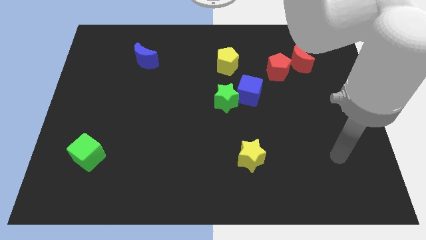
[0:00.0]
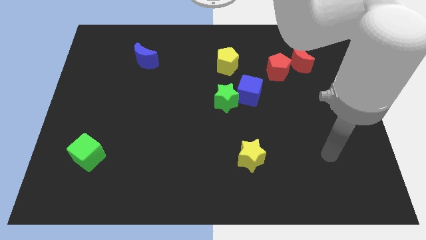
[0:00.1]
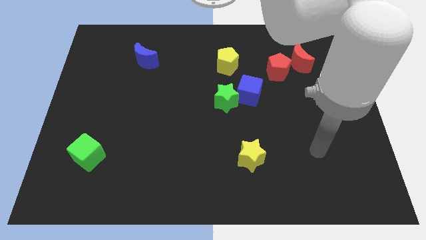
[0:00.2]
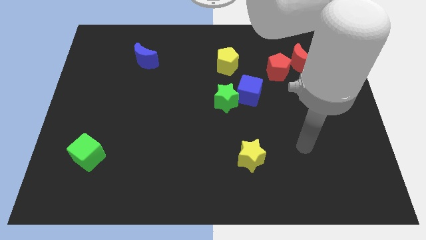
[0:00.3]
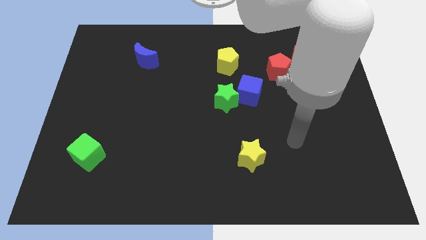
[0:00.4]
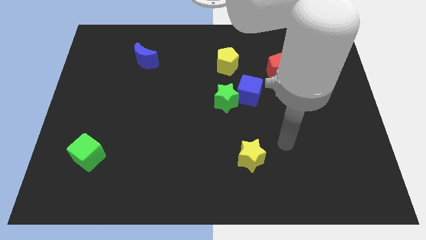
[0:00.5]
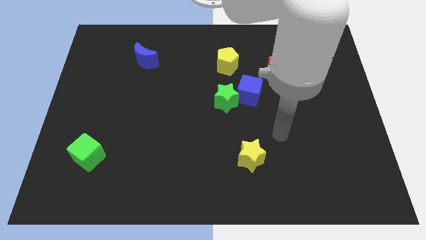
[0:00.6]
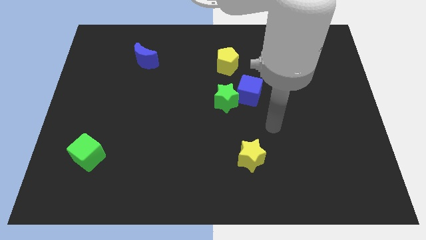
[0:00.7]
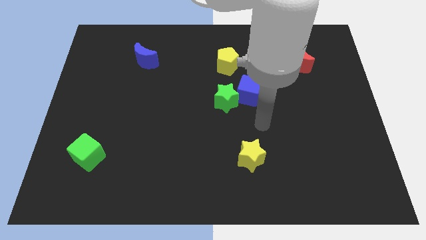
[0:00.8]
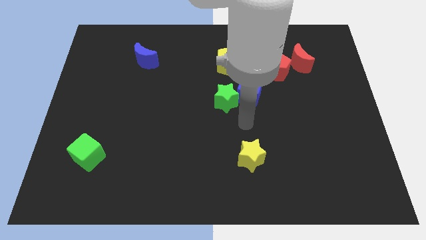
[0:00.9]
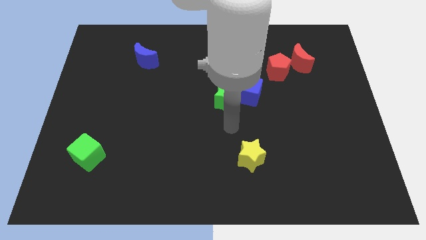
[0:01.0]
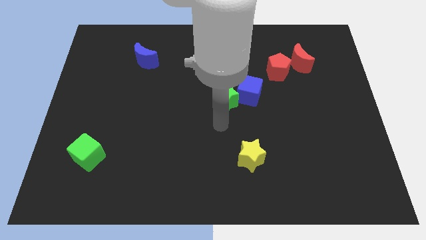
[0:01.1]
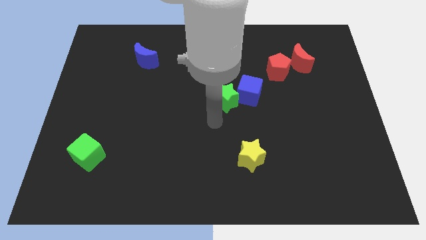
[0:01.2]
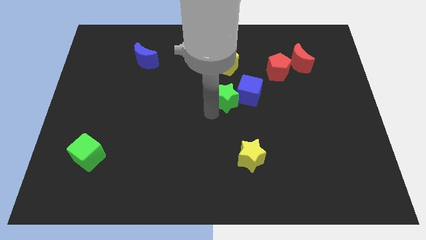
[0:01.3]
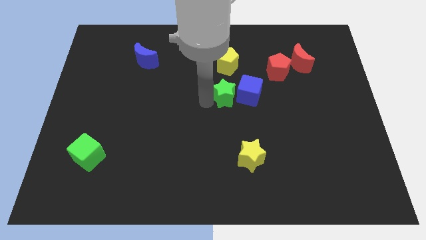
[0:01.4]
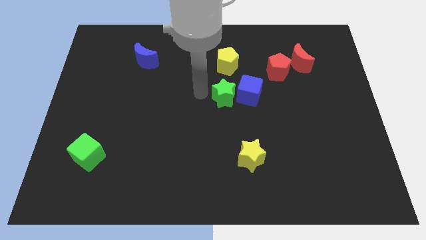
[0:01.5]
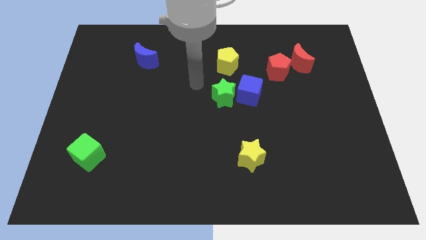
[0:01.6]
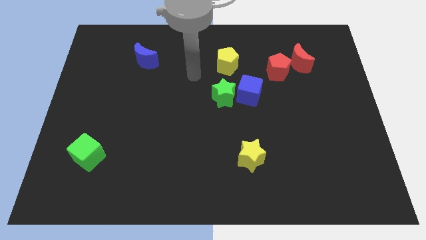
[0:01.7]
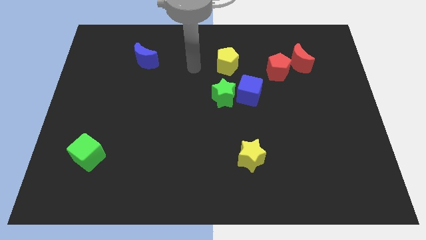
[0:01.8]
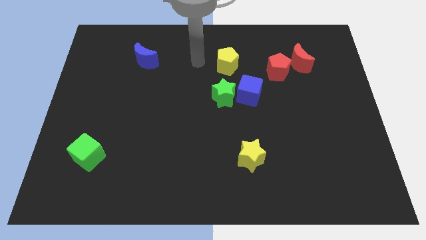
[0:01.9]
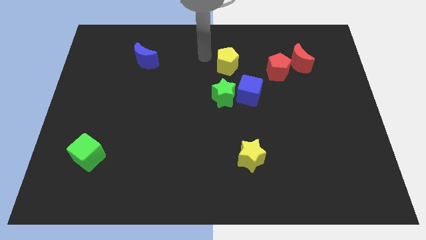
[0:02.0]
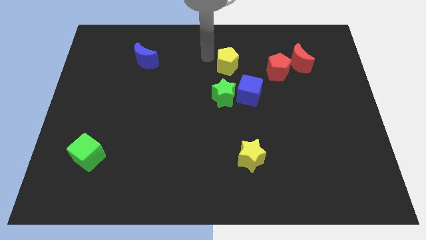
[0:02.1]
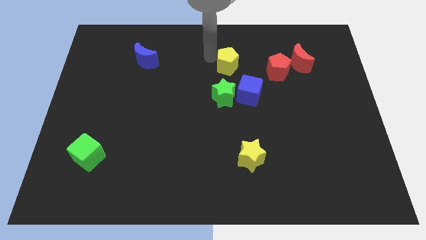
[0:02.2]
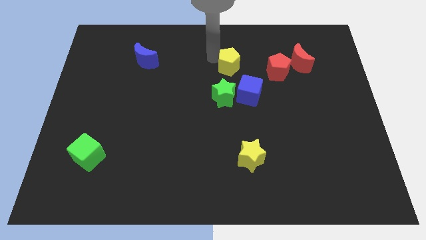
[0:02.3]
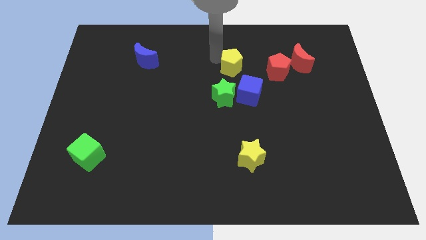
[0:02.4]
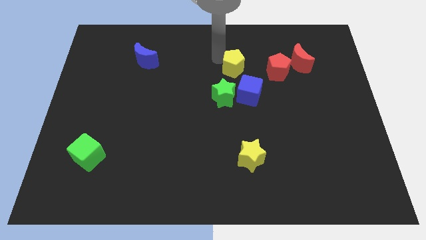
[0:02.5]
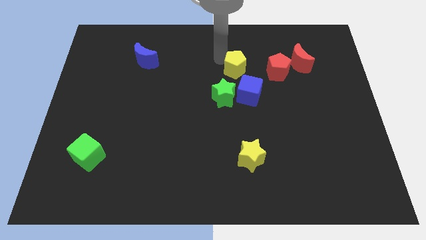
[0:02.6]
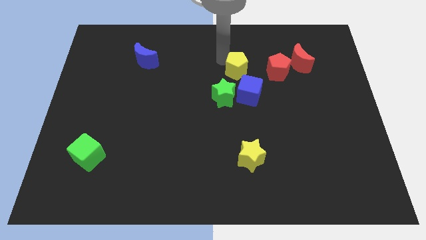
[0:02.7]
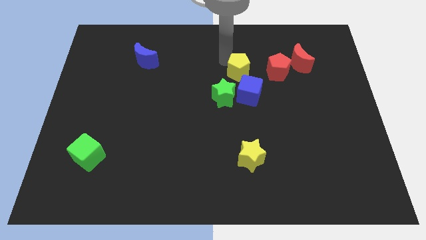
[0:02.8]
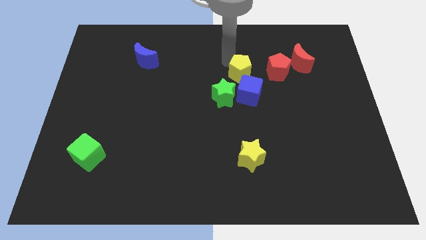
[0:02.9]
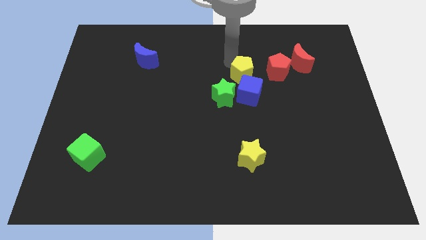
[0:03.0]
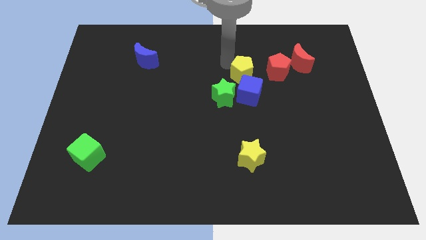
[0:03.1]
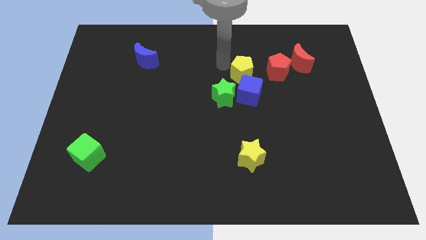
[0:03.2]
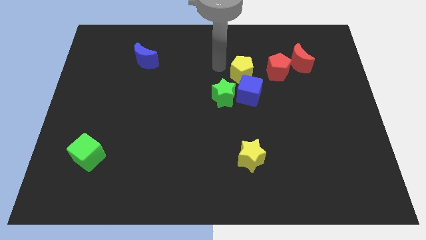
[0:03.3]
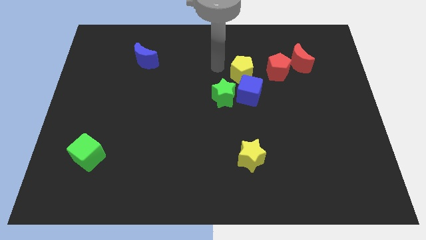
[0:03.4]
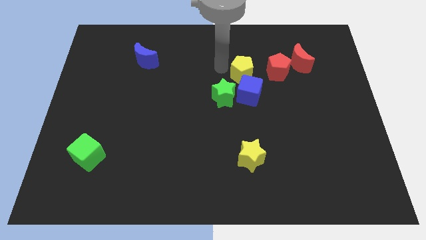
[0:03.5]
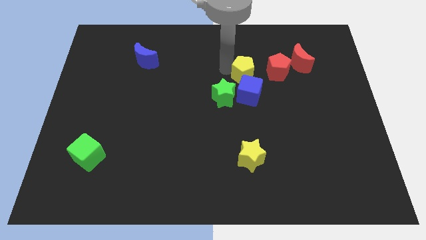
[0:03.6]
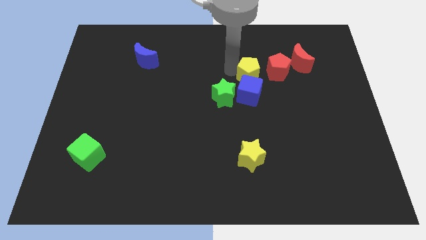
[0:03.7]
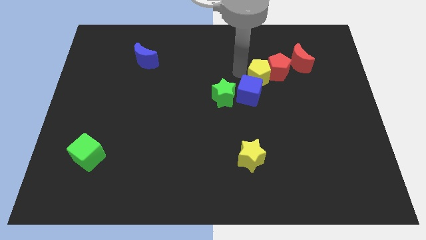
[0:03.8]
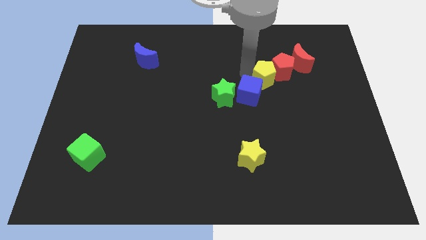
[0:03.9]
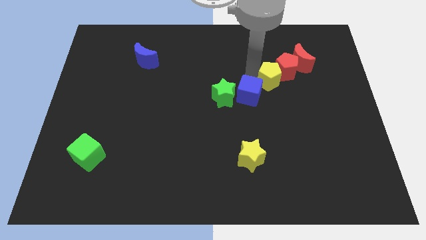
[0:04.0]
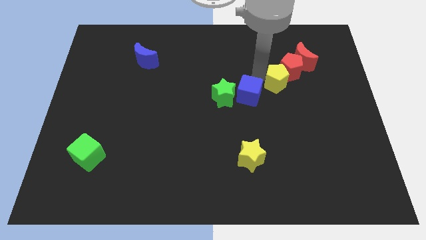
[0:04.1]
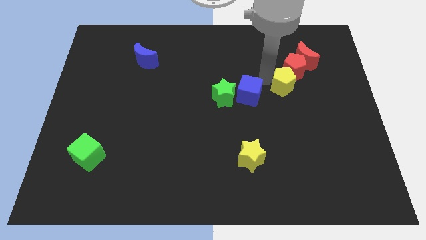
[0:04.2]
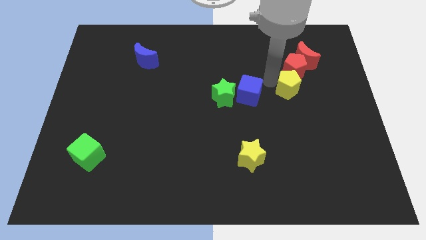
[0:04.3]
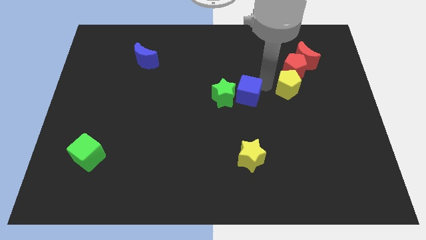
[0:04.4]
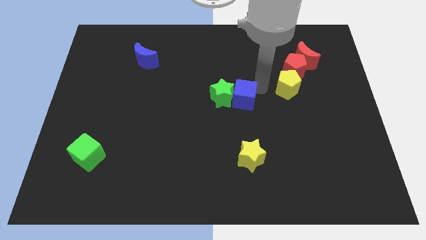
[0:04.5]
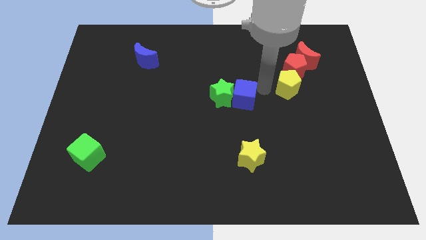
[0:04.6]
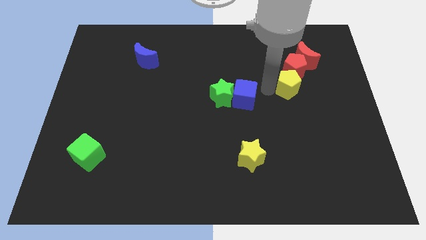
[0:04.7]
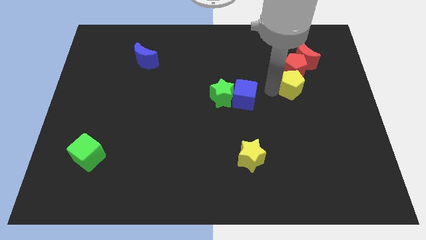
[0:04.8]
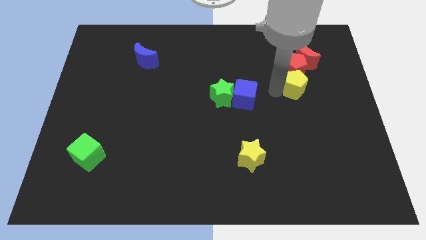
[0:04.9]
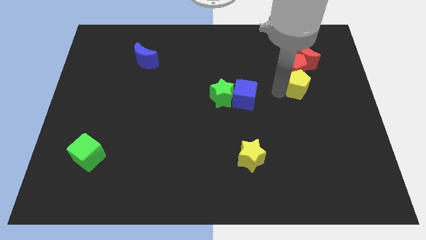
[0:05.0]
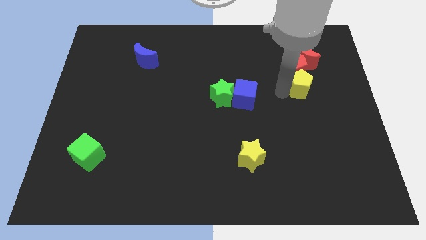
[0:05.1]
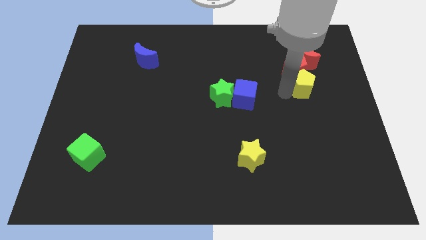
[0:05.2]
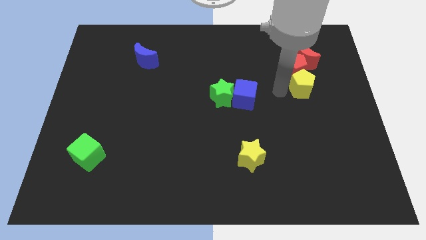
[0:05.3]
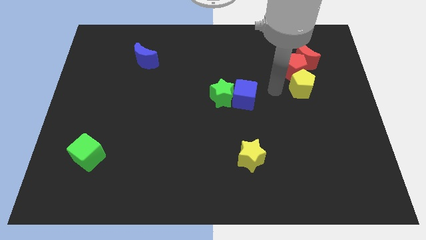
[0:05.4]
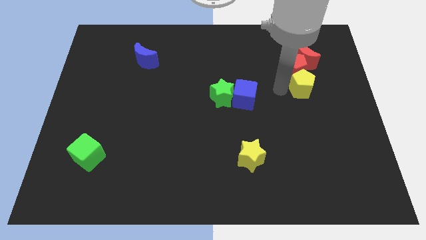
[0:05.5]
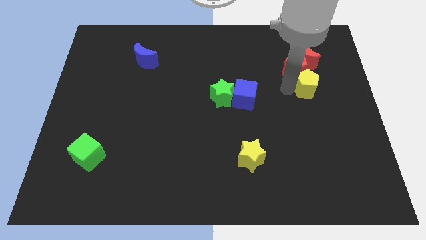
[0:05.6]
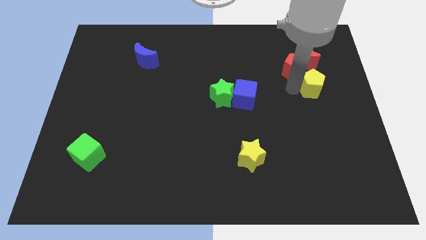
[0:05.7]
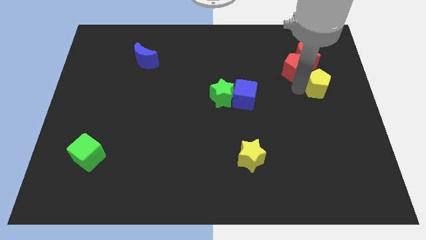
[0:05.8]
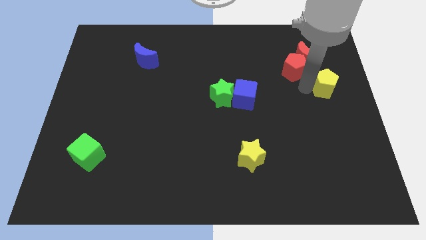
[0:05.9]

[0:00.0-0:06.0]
put the yellow pentagon to the center right

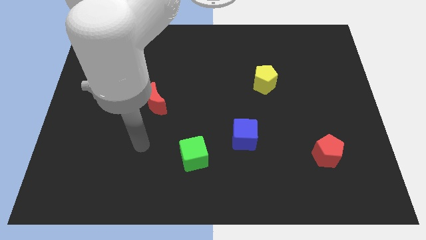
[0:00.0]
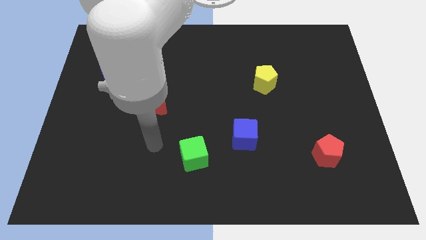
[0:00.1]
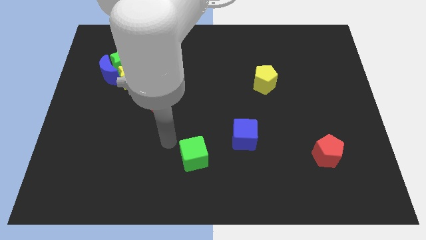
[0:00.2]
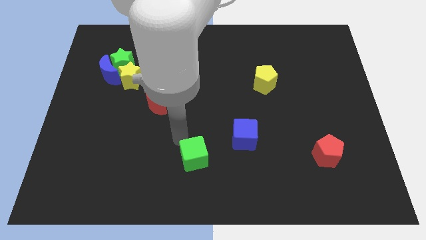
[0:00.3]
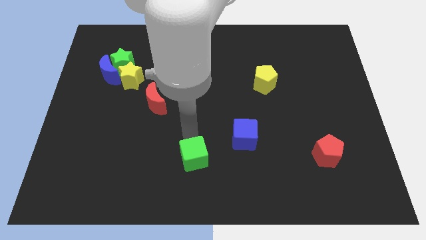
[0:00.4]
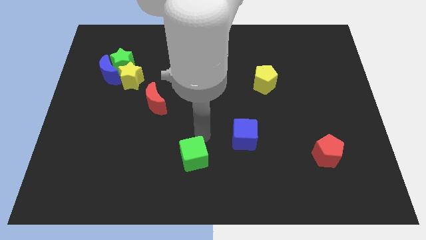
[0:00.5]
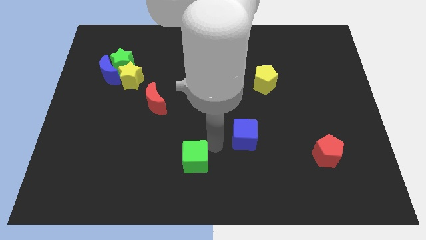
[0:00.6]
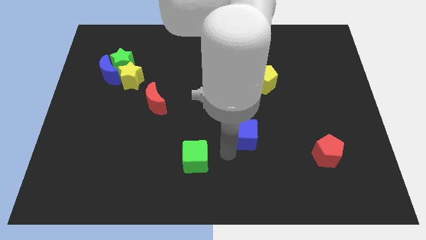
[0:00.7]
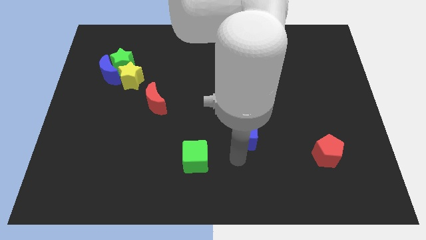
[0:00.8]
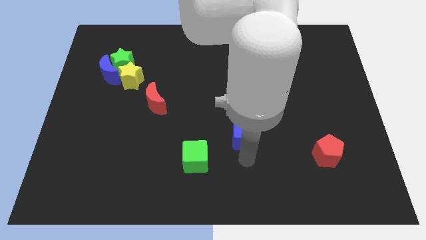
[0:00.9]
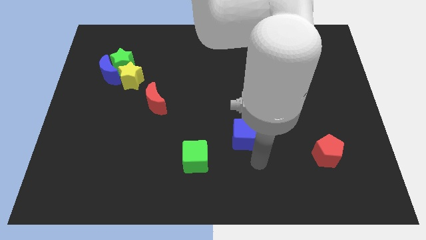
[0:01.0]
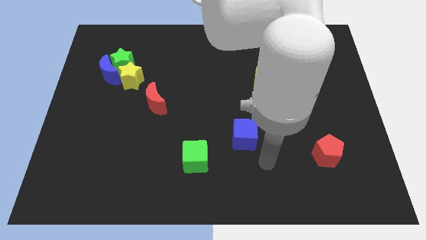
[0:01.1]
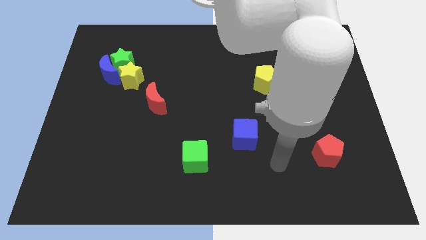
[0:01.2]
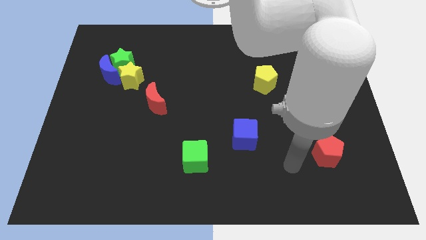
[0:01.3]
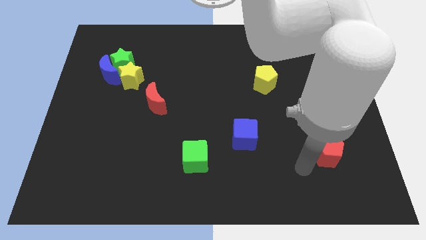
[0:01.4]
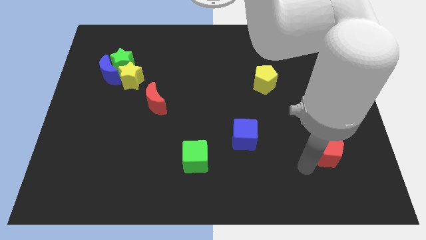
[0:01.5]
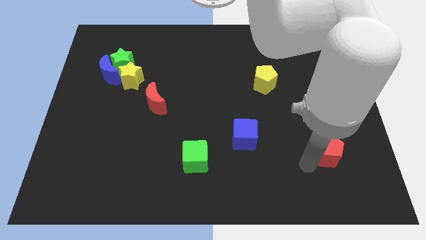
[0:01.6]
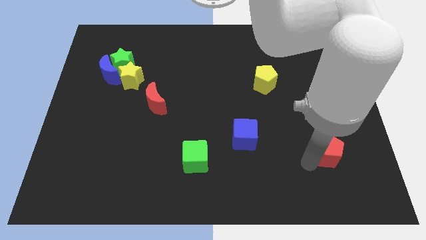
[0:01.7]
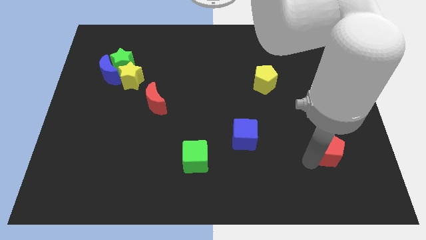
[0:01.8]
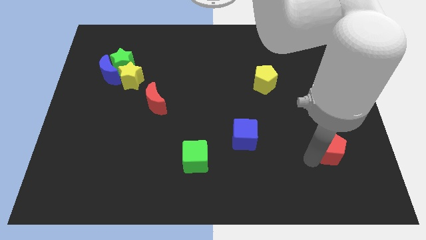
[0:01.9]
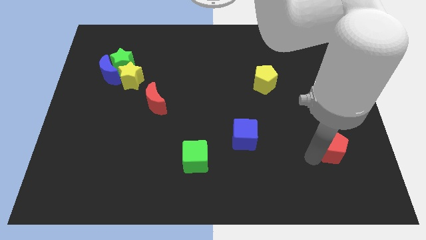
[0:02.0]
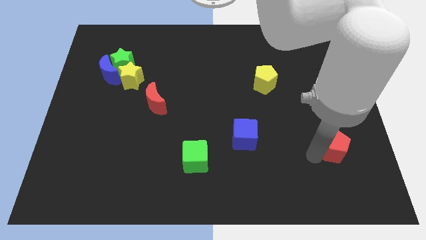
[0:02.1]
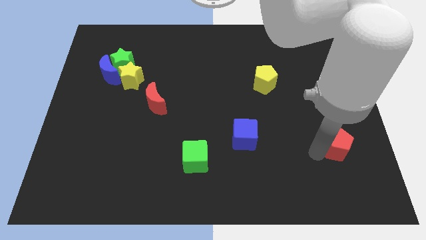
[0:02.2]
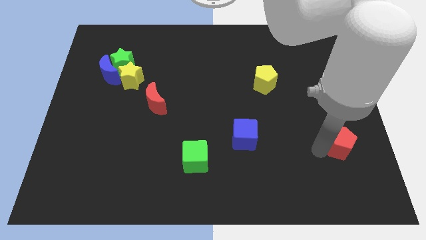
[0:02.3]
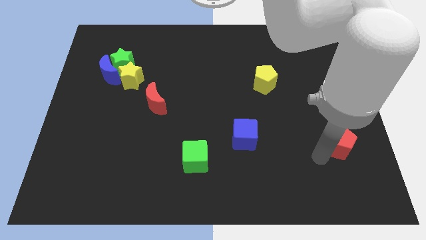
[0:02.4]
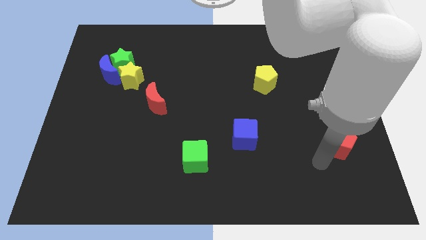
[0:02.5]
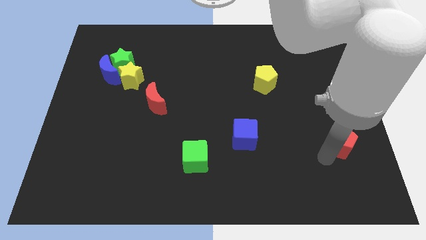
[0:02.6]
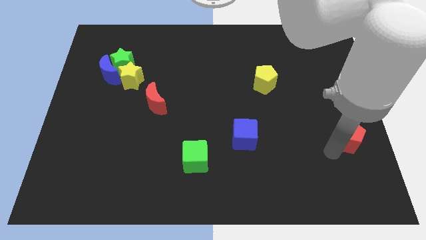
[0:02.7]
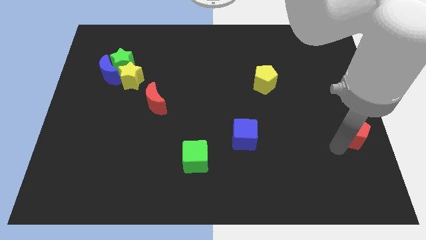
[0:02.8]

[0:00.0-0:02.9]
put the red pentagon to the right side
